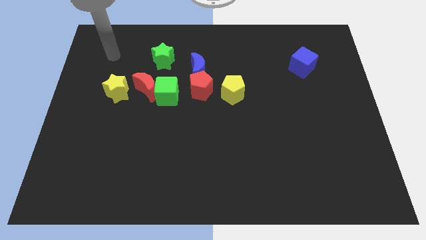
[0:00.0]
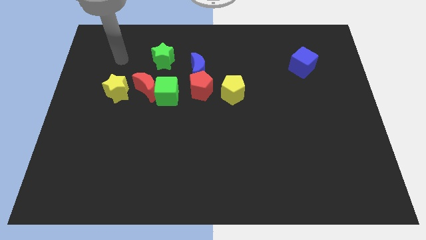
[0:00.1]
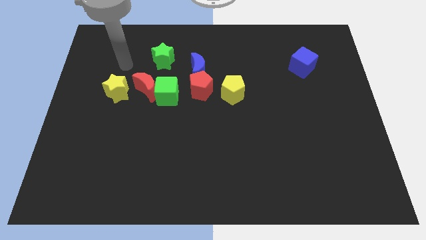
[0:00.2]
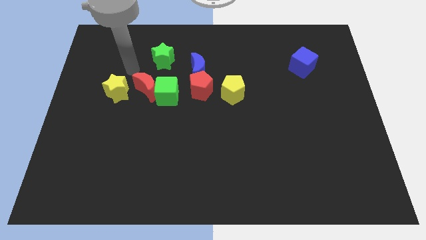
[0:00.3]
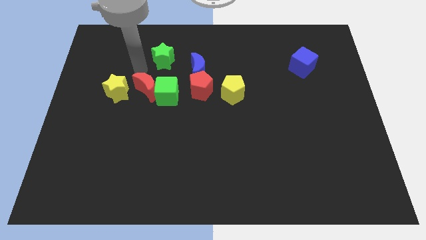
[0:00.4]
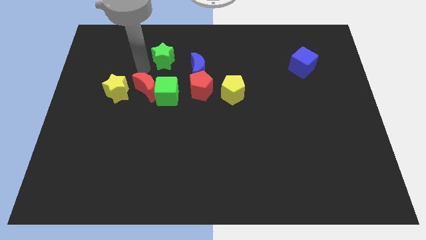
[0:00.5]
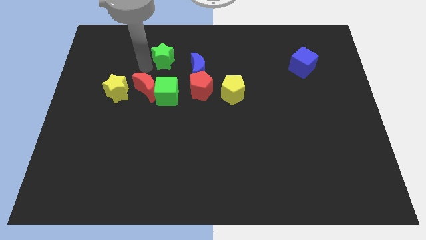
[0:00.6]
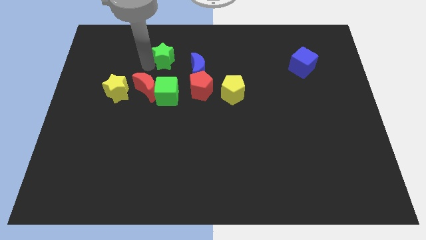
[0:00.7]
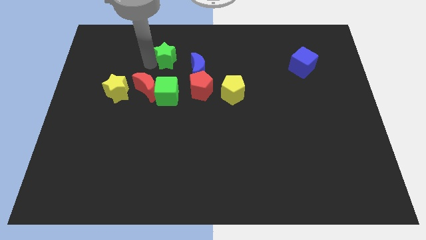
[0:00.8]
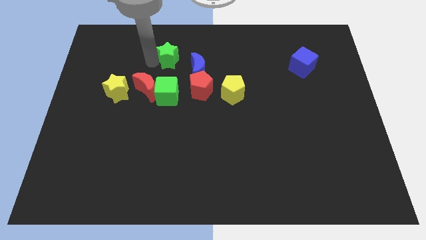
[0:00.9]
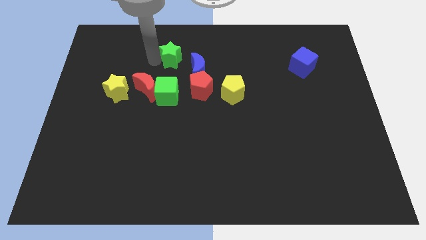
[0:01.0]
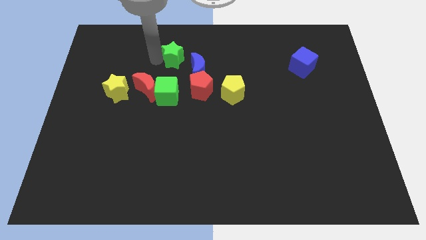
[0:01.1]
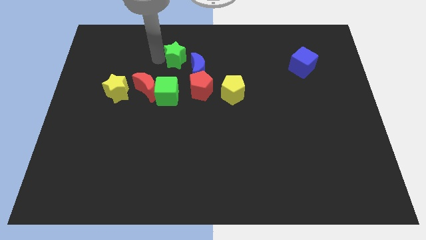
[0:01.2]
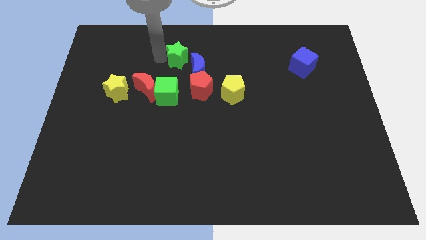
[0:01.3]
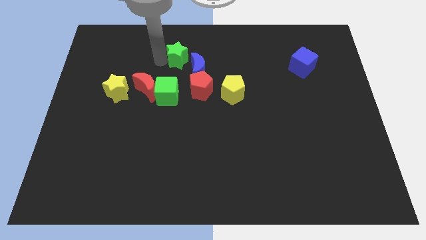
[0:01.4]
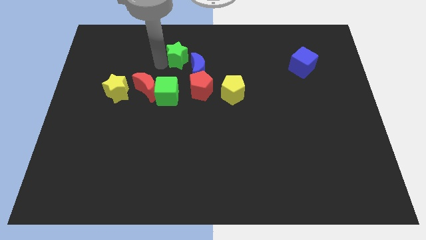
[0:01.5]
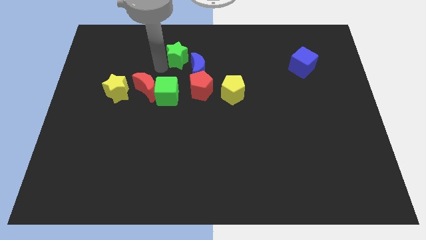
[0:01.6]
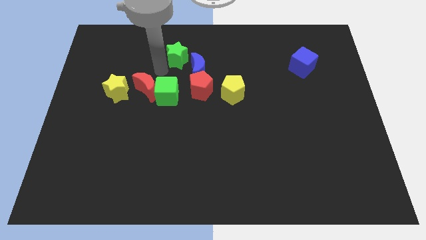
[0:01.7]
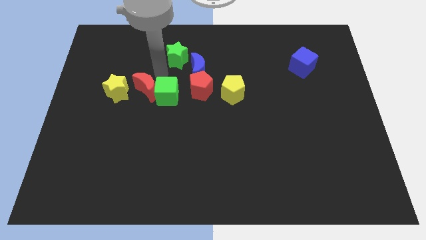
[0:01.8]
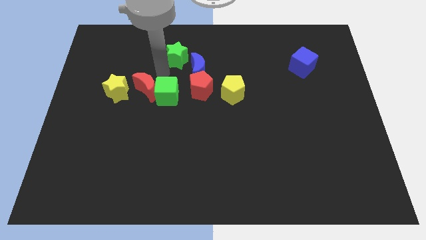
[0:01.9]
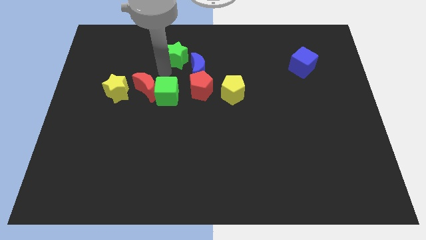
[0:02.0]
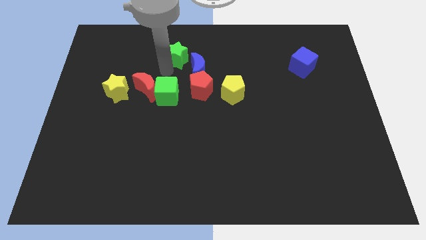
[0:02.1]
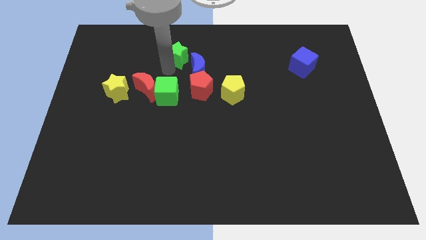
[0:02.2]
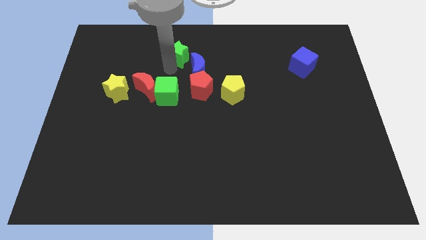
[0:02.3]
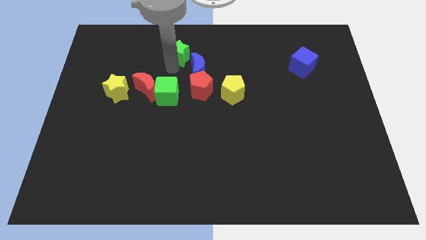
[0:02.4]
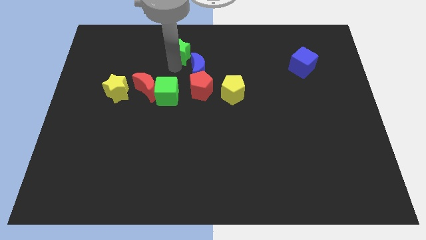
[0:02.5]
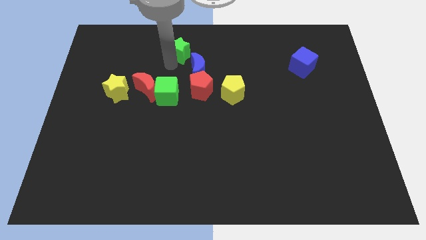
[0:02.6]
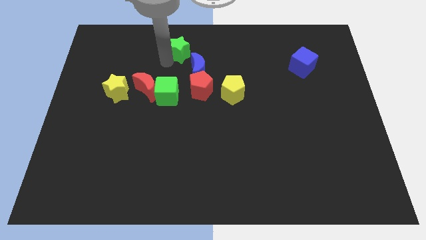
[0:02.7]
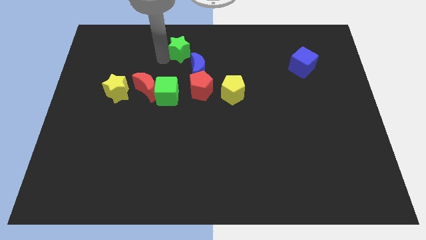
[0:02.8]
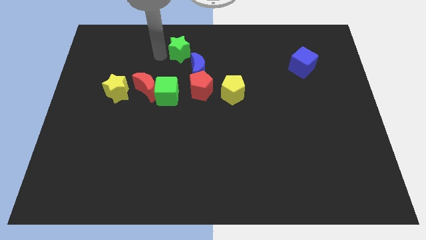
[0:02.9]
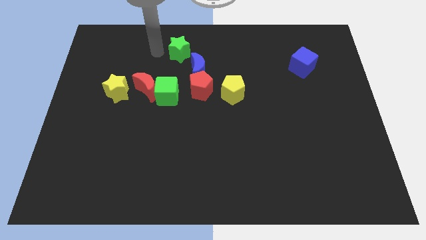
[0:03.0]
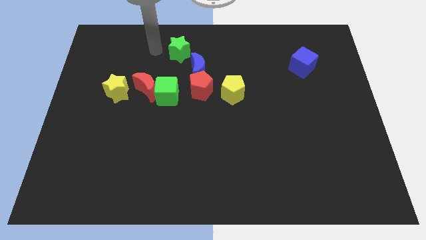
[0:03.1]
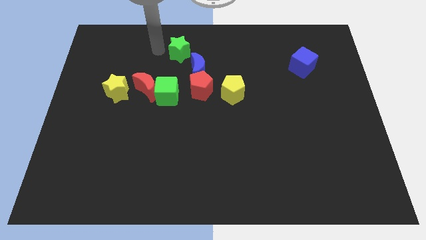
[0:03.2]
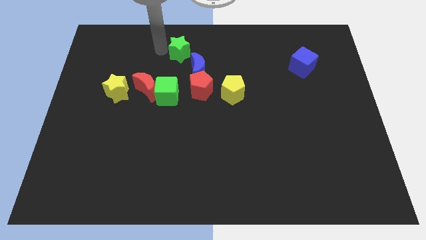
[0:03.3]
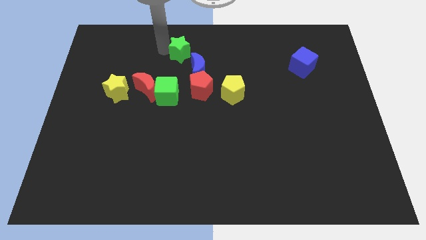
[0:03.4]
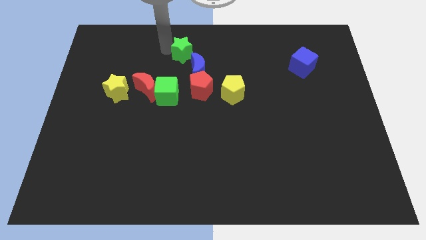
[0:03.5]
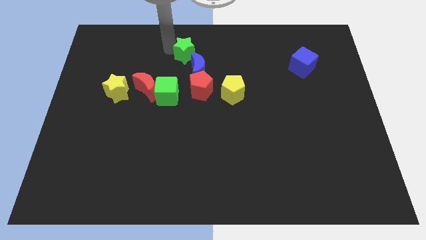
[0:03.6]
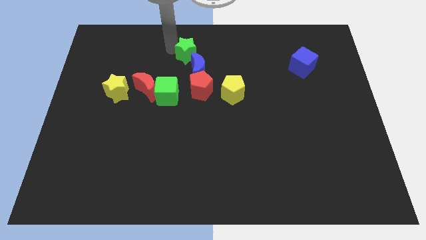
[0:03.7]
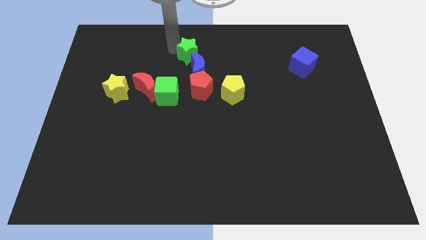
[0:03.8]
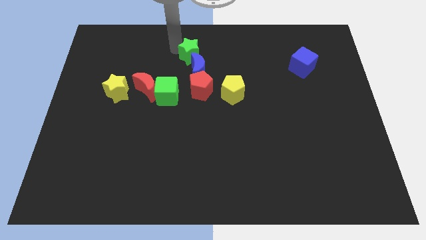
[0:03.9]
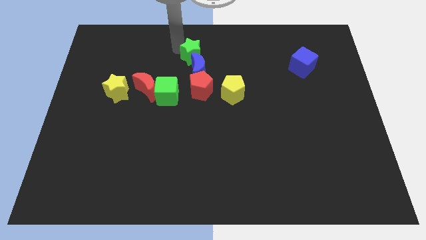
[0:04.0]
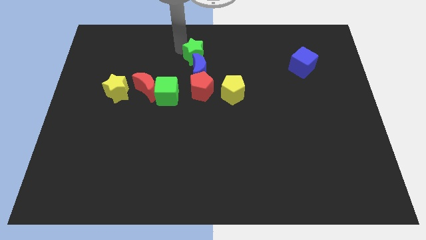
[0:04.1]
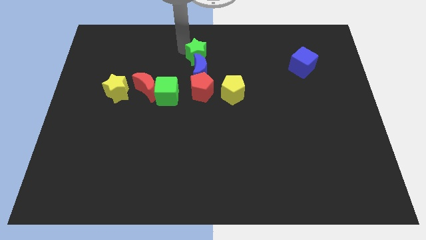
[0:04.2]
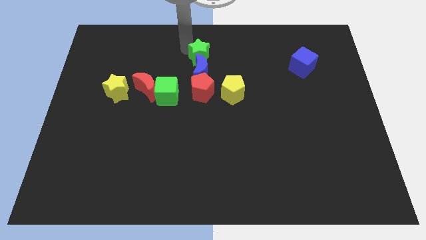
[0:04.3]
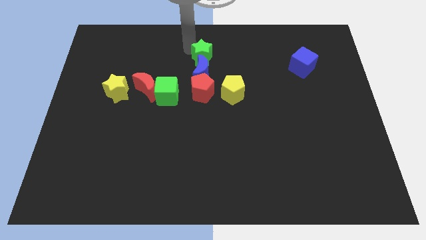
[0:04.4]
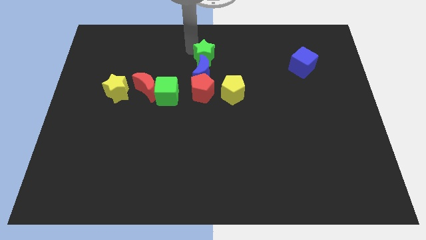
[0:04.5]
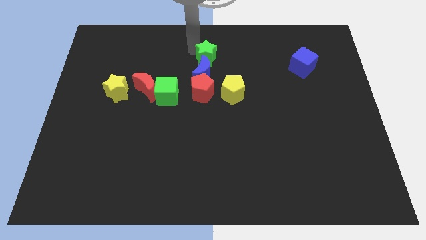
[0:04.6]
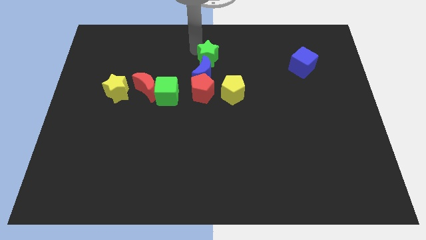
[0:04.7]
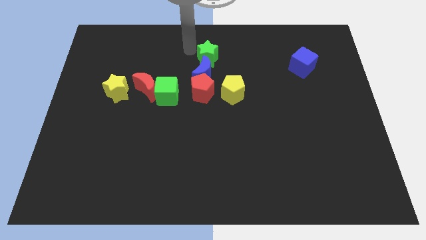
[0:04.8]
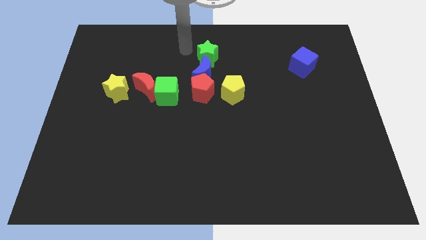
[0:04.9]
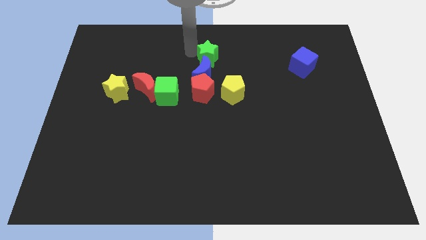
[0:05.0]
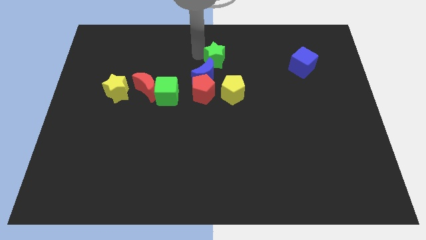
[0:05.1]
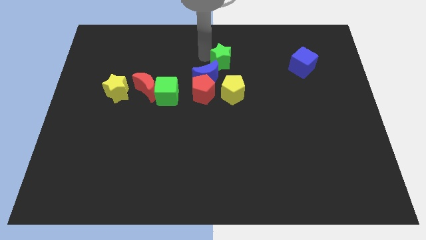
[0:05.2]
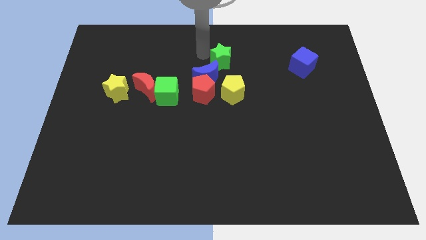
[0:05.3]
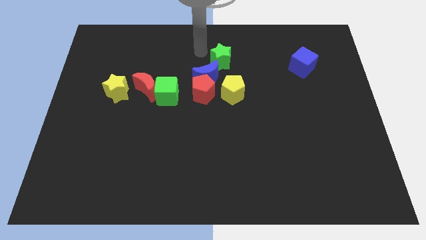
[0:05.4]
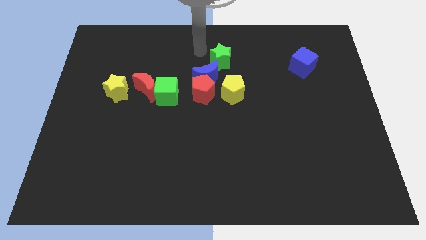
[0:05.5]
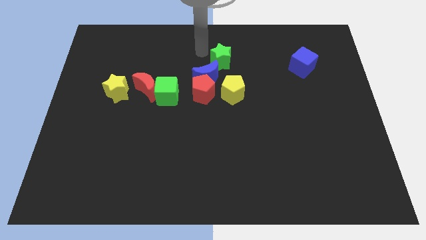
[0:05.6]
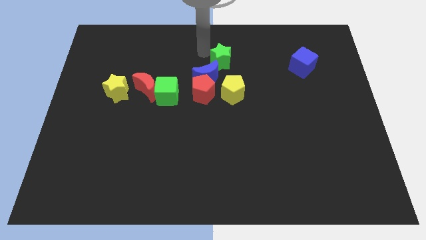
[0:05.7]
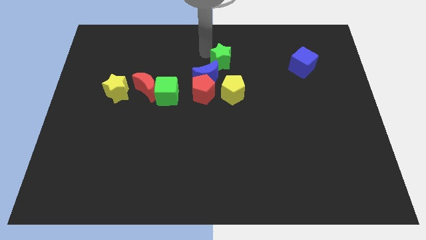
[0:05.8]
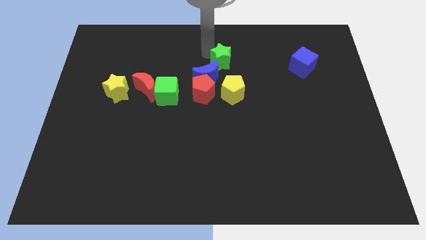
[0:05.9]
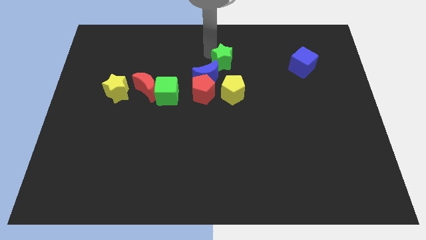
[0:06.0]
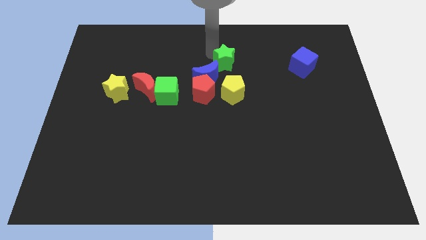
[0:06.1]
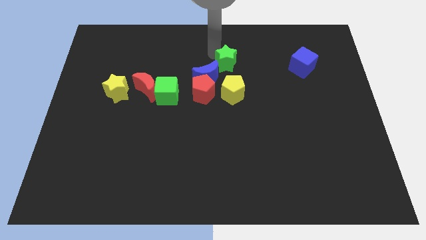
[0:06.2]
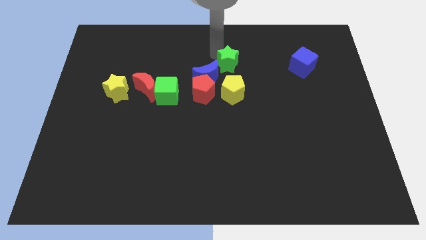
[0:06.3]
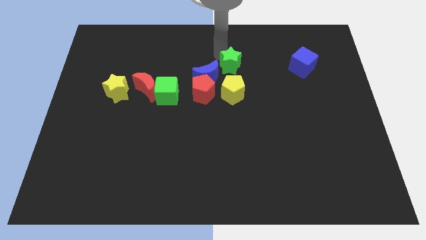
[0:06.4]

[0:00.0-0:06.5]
slightly move the green star downwards and then to the right

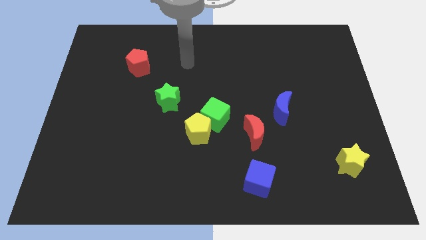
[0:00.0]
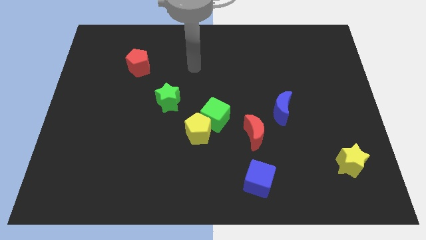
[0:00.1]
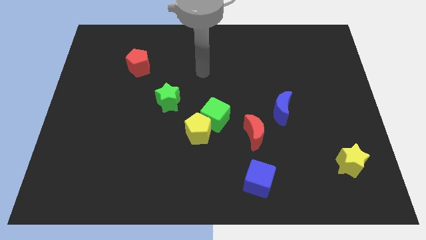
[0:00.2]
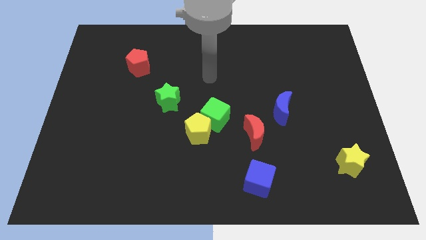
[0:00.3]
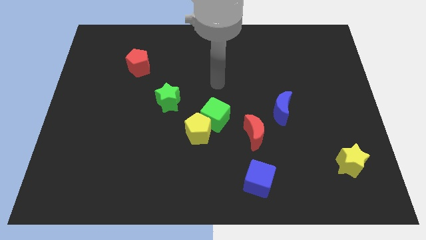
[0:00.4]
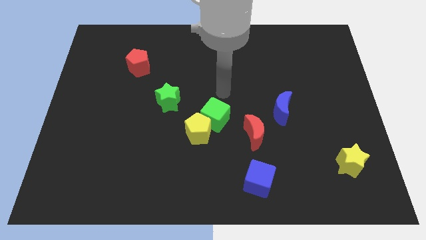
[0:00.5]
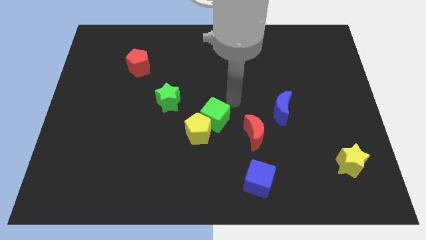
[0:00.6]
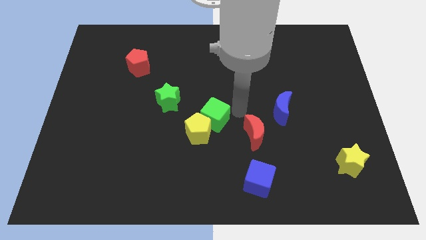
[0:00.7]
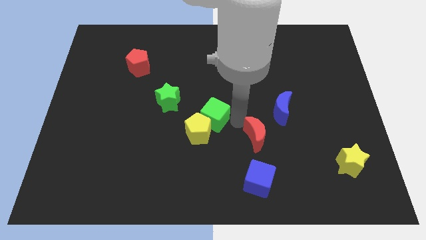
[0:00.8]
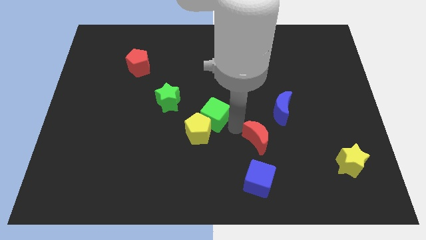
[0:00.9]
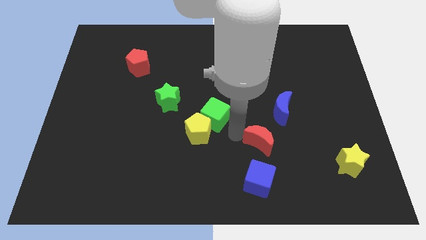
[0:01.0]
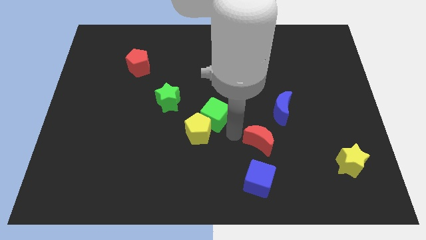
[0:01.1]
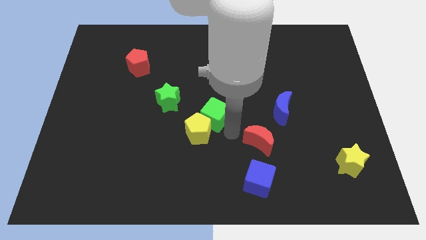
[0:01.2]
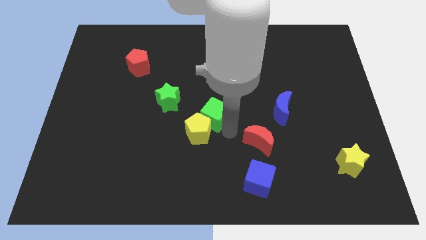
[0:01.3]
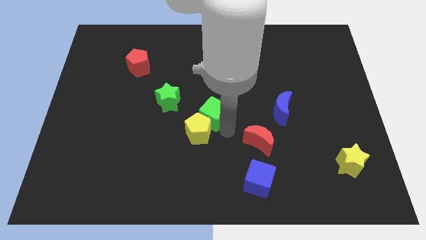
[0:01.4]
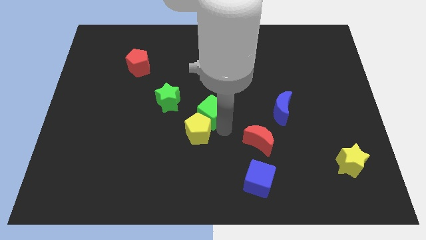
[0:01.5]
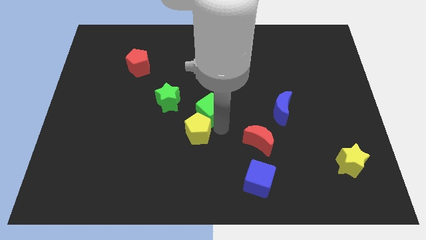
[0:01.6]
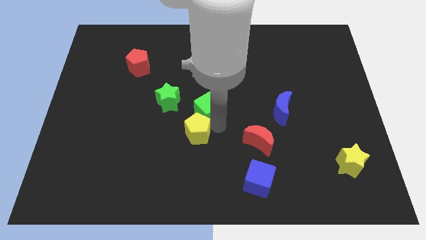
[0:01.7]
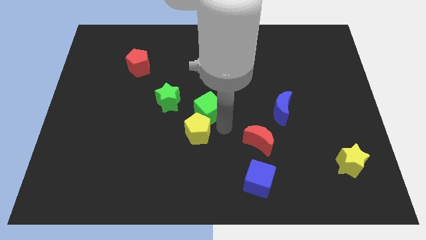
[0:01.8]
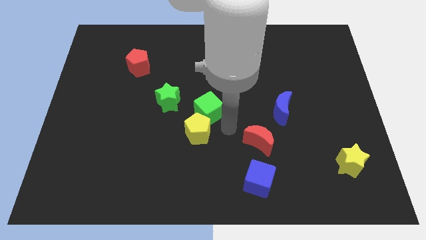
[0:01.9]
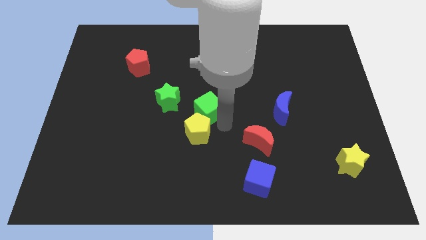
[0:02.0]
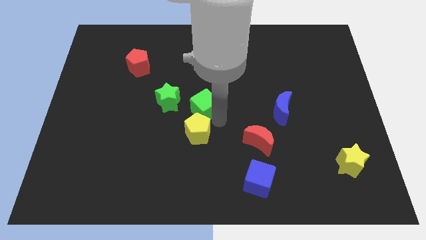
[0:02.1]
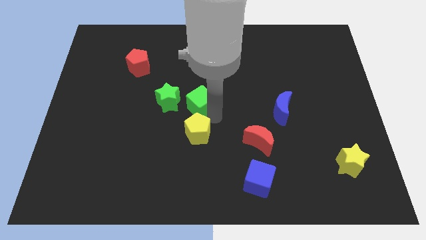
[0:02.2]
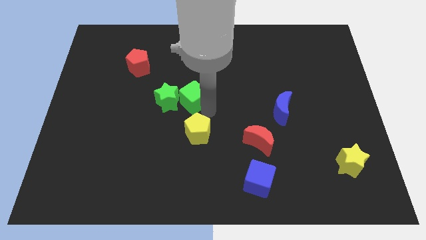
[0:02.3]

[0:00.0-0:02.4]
push the green cube a little diagonally up and to the left
